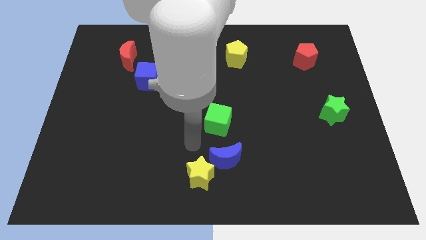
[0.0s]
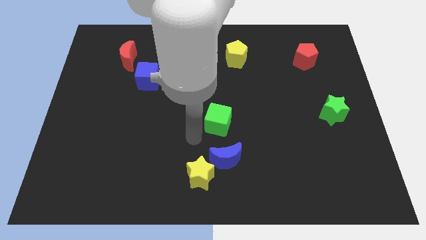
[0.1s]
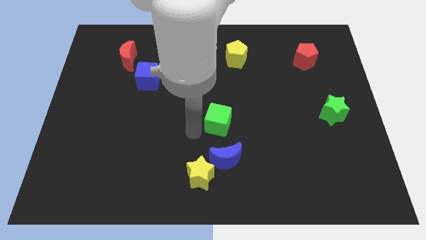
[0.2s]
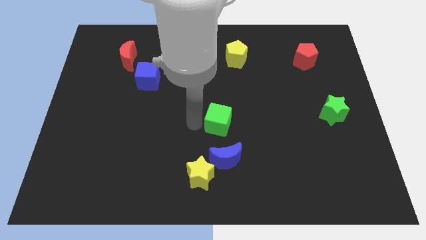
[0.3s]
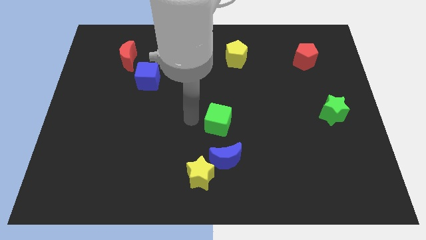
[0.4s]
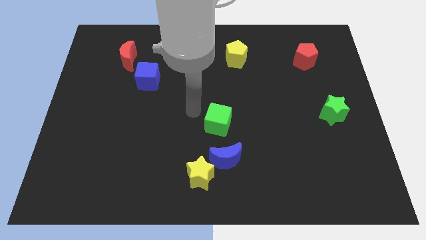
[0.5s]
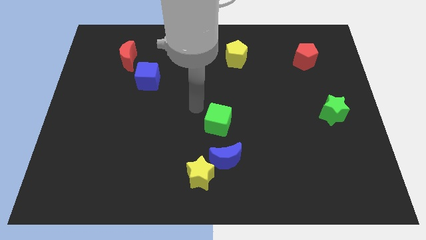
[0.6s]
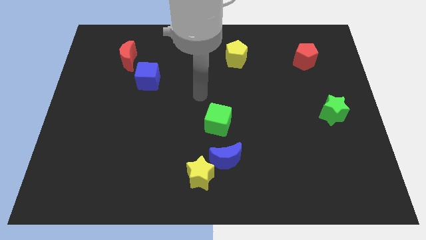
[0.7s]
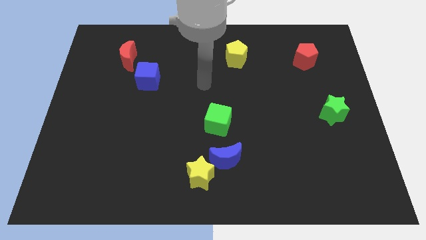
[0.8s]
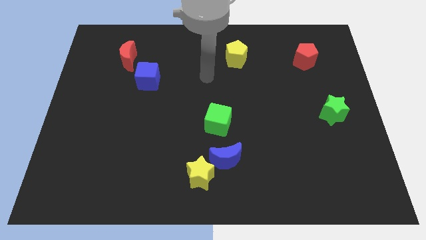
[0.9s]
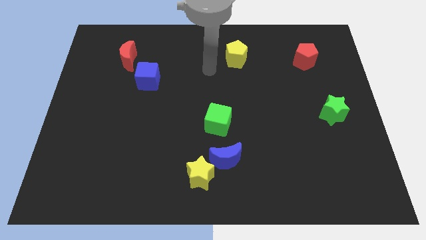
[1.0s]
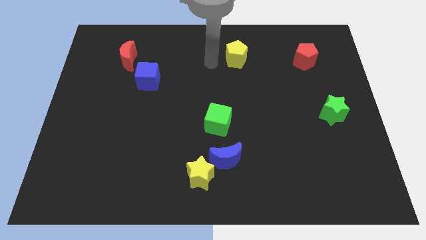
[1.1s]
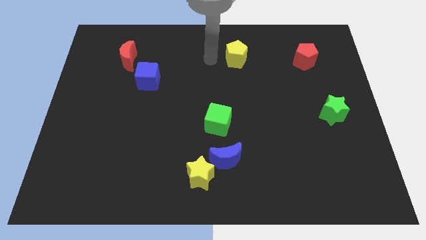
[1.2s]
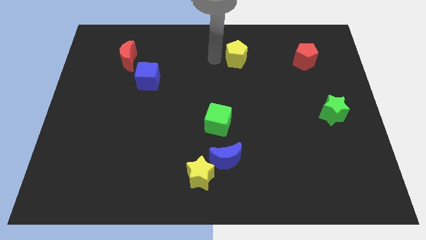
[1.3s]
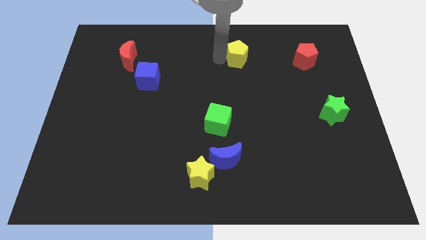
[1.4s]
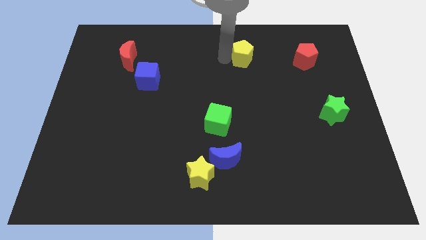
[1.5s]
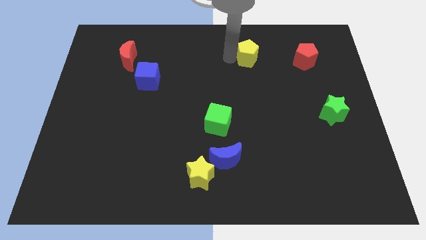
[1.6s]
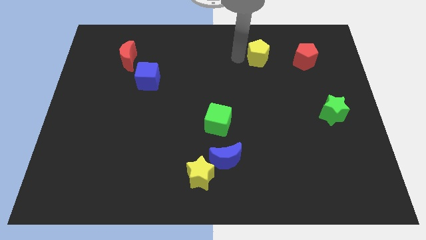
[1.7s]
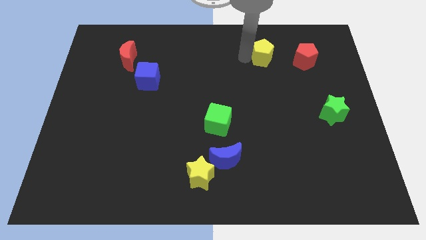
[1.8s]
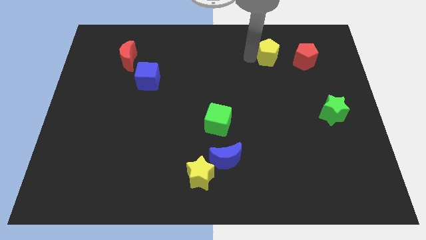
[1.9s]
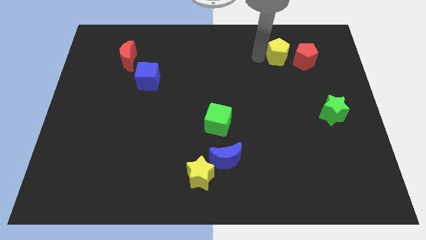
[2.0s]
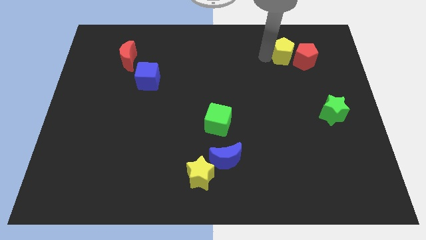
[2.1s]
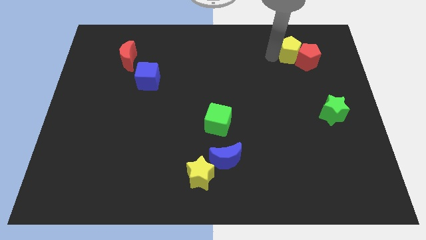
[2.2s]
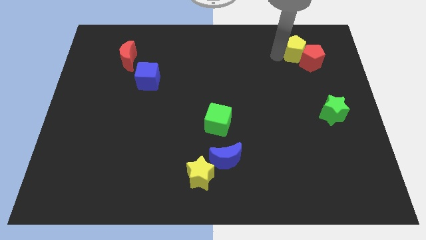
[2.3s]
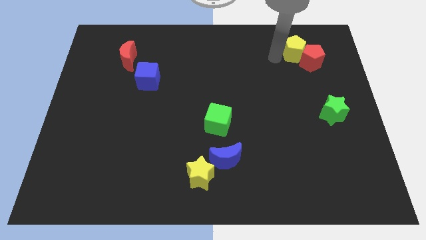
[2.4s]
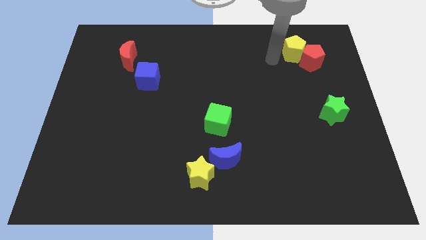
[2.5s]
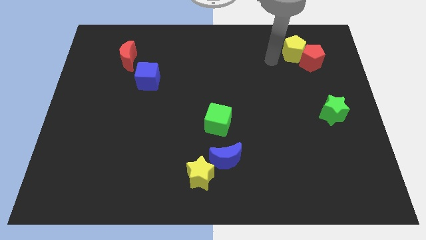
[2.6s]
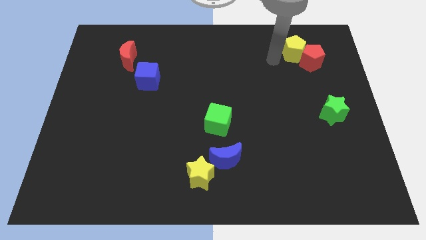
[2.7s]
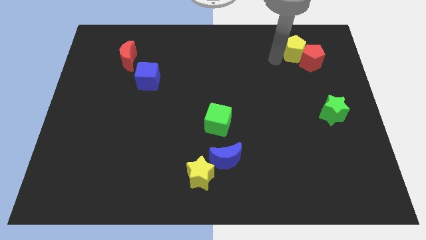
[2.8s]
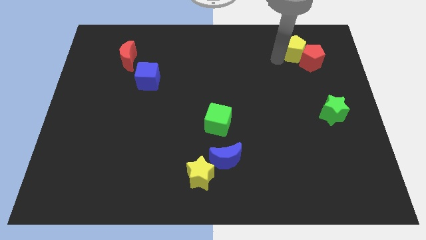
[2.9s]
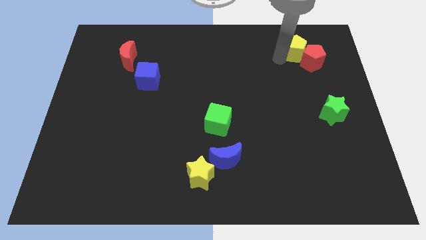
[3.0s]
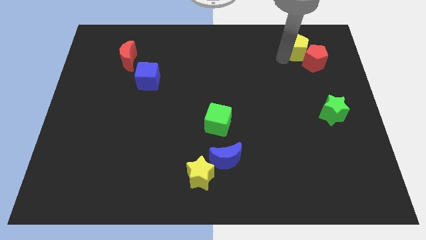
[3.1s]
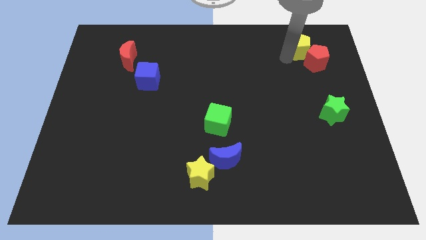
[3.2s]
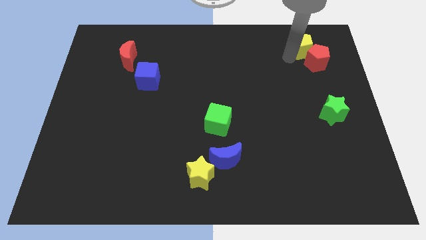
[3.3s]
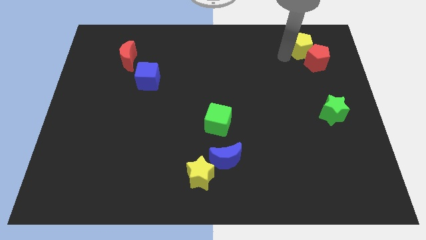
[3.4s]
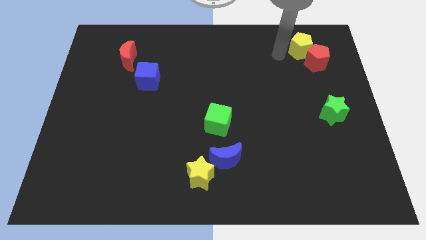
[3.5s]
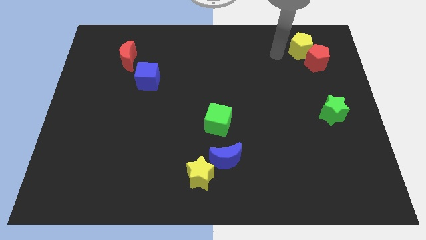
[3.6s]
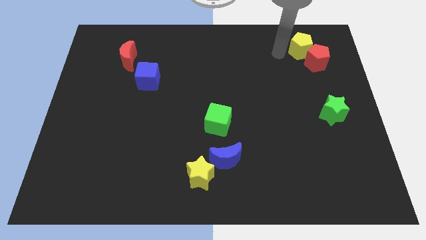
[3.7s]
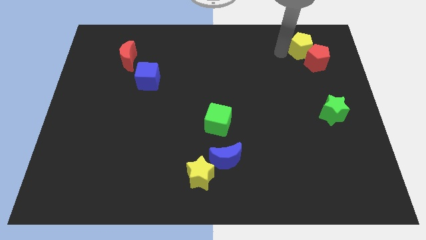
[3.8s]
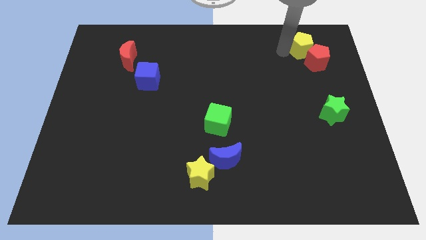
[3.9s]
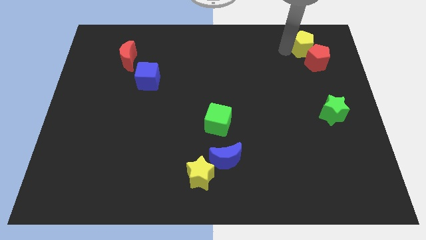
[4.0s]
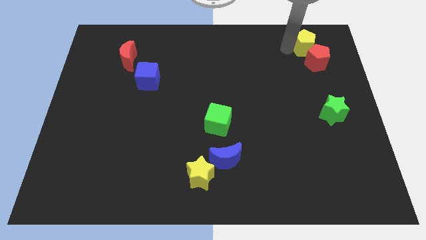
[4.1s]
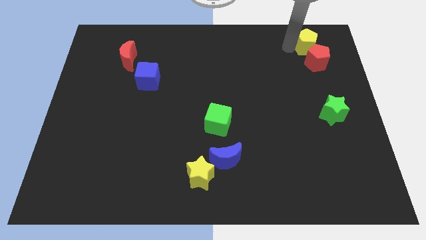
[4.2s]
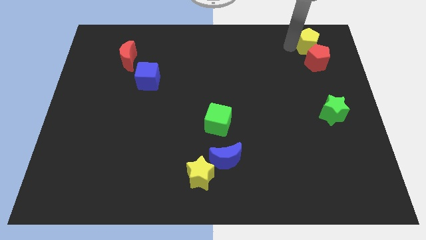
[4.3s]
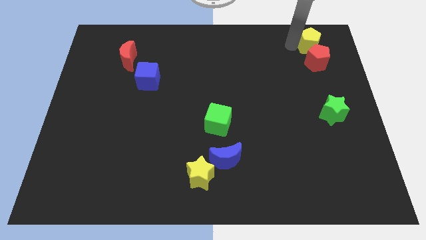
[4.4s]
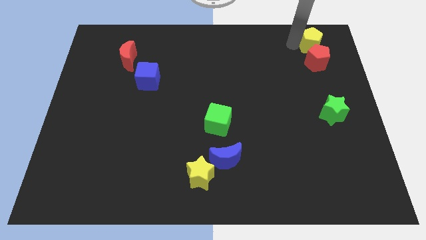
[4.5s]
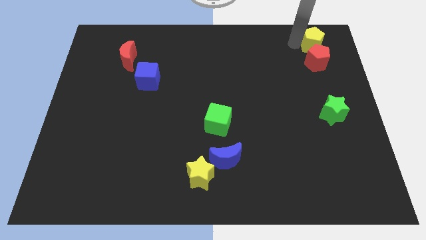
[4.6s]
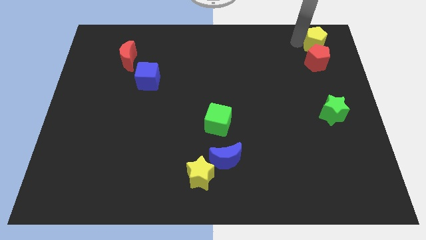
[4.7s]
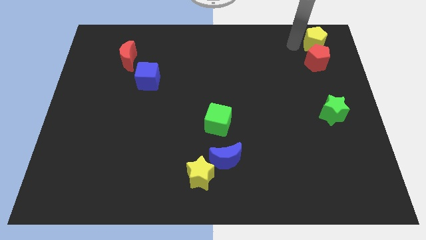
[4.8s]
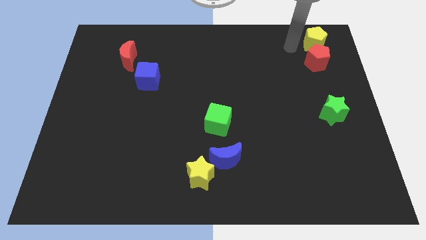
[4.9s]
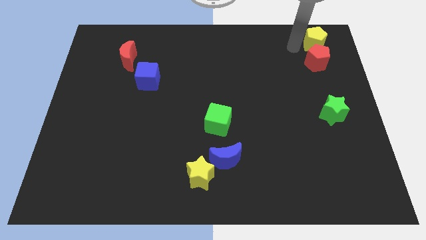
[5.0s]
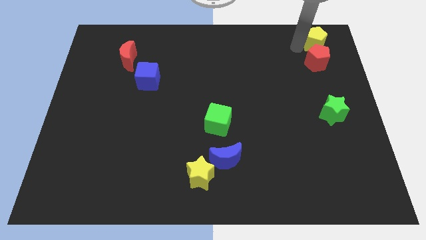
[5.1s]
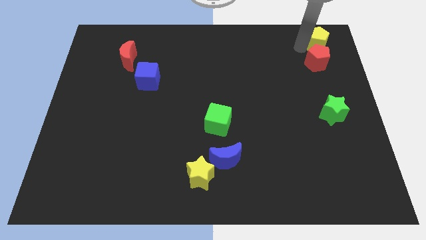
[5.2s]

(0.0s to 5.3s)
move the yellow pentagon to the top right corner

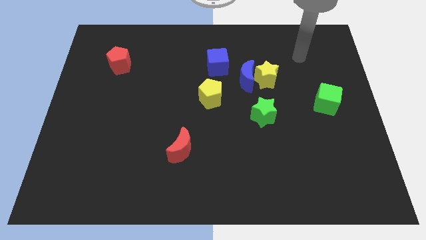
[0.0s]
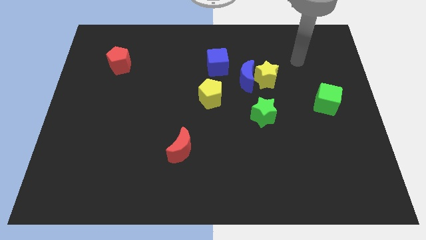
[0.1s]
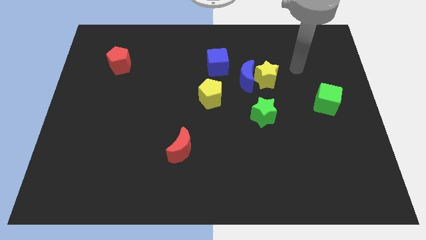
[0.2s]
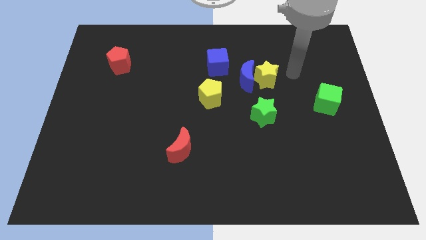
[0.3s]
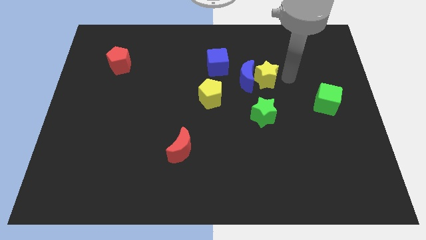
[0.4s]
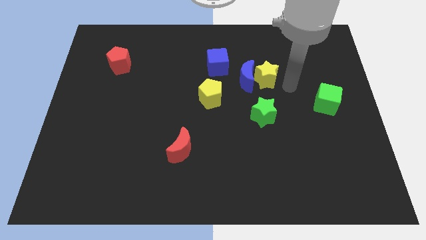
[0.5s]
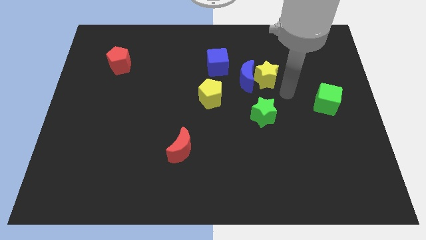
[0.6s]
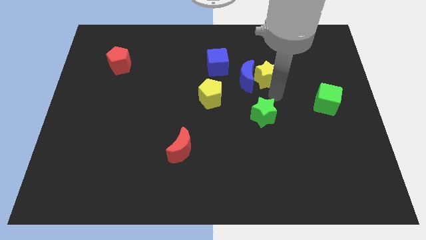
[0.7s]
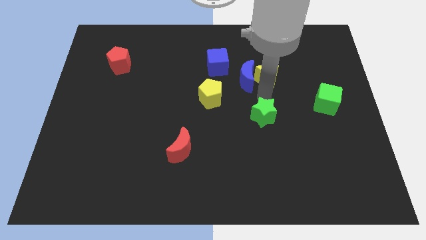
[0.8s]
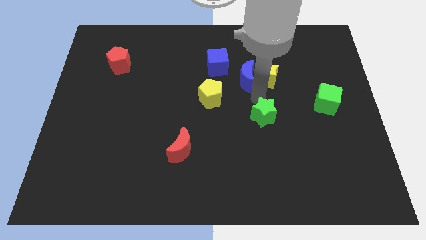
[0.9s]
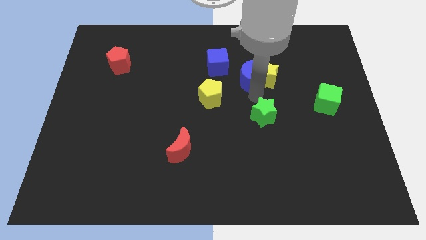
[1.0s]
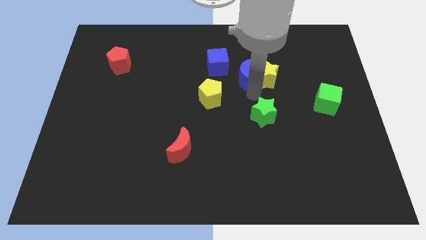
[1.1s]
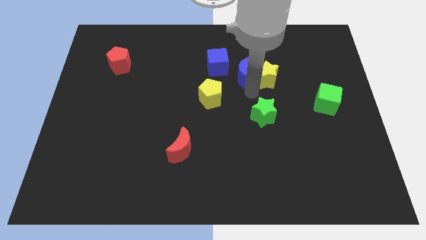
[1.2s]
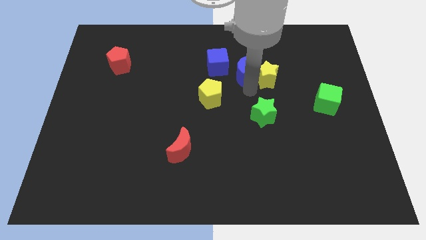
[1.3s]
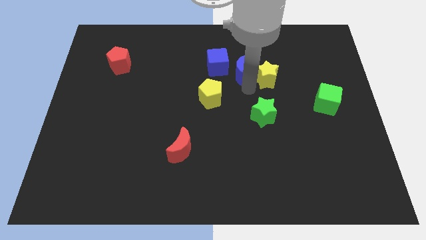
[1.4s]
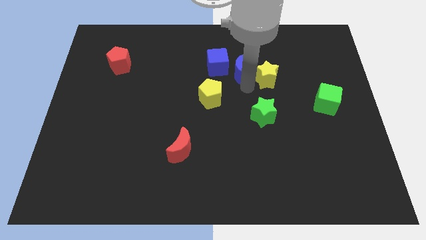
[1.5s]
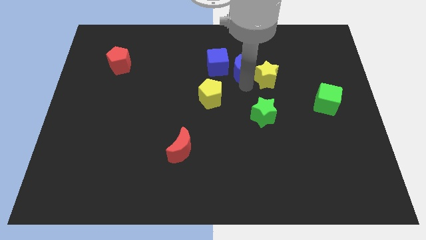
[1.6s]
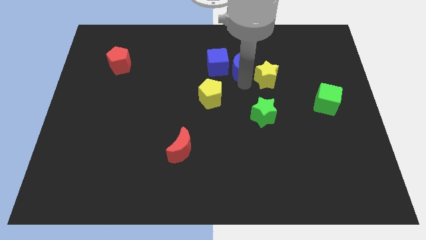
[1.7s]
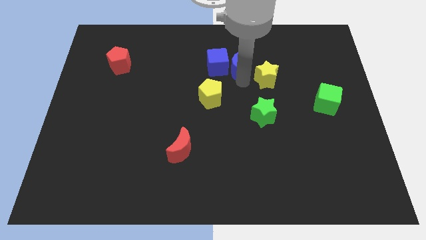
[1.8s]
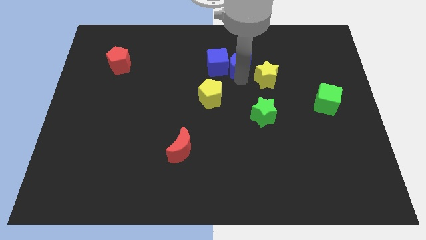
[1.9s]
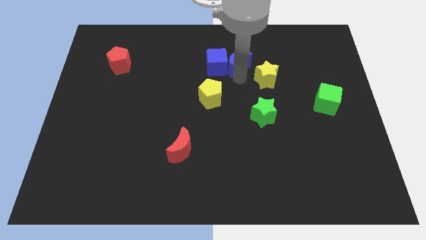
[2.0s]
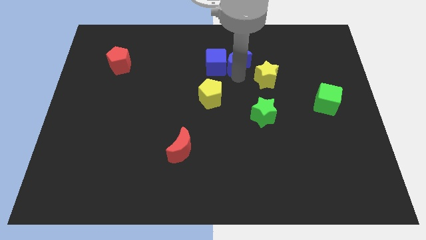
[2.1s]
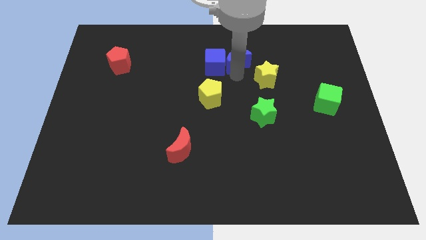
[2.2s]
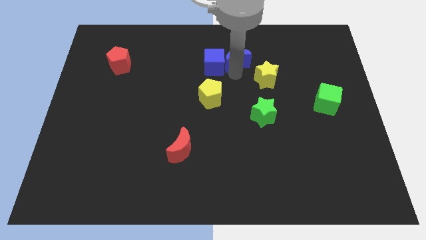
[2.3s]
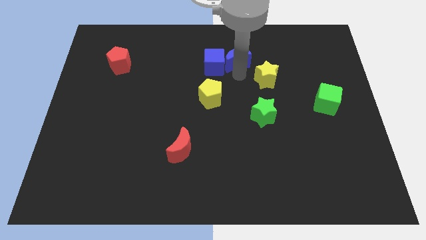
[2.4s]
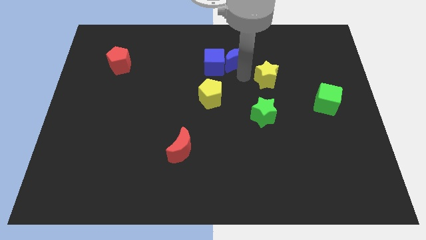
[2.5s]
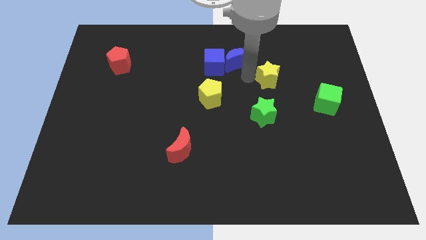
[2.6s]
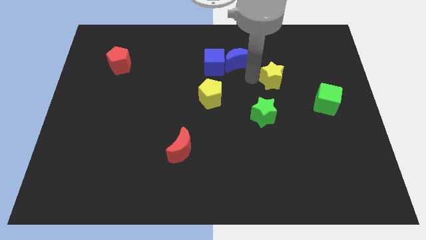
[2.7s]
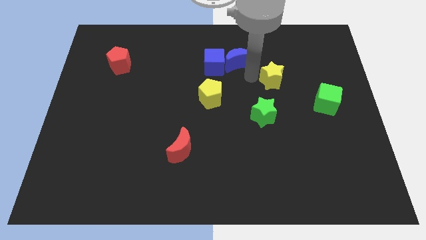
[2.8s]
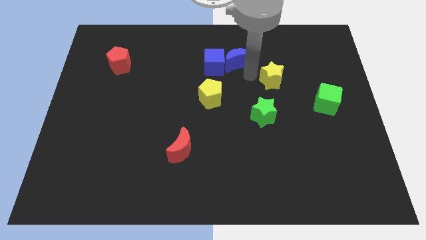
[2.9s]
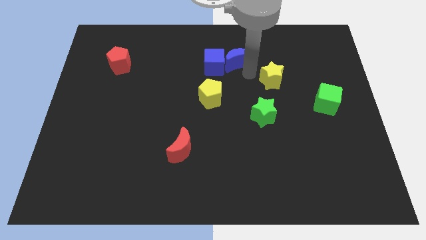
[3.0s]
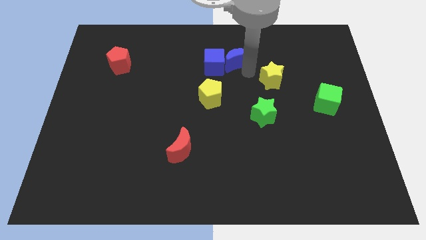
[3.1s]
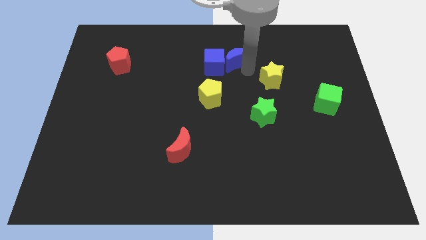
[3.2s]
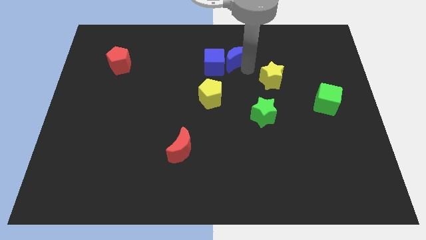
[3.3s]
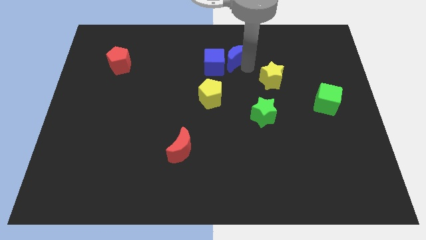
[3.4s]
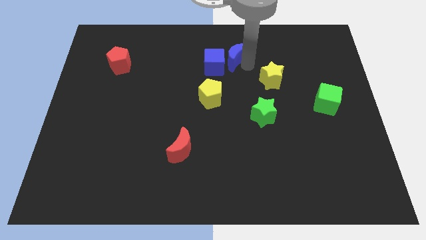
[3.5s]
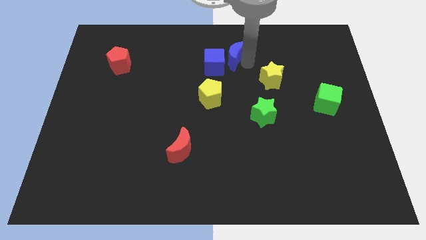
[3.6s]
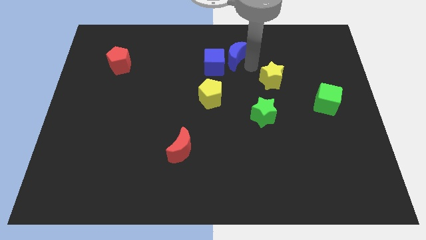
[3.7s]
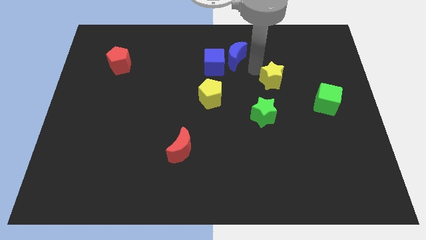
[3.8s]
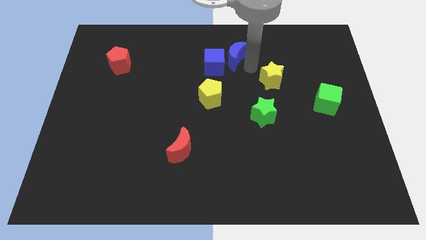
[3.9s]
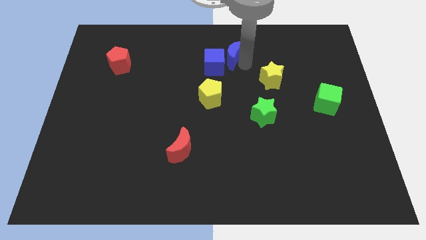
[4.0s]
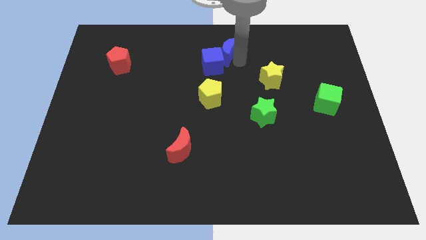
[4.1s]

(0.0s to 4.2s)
slide the blue moon to the towards your base
